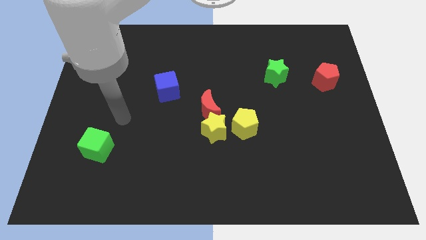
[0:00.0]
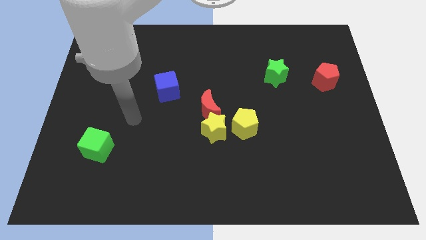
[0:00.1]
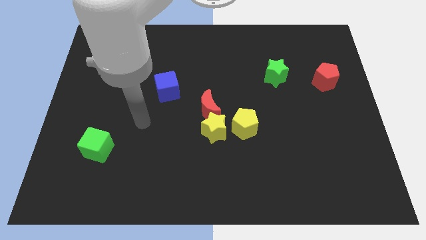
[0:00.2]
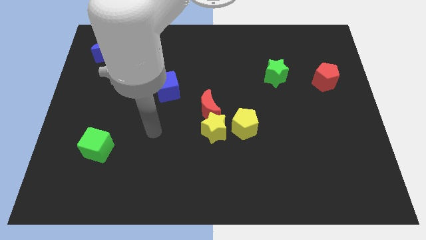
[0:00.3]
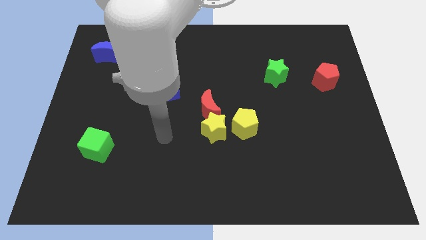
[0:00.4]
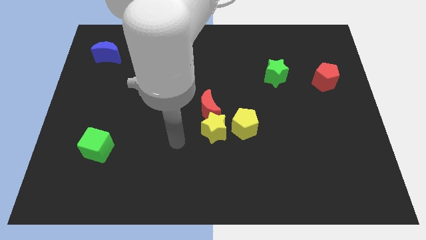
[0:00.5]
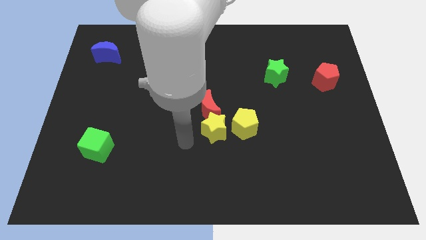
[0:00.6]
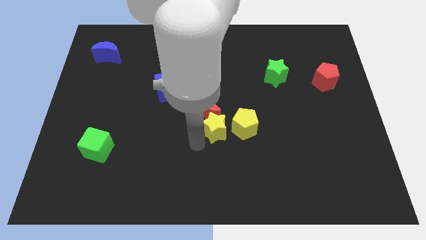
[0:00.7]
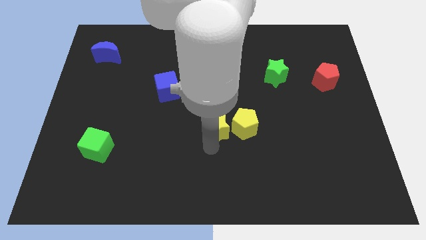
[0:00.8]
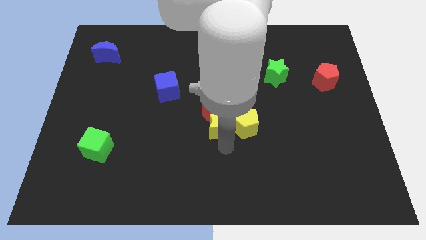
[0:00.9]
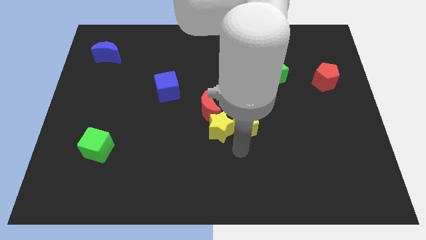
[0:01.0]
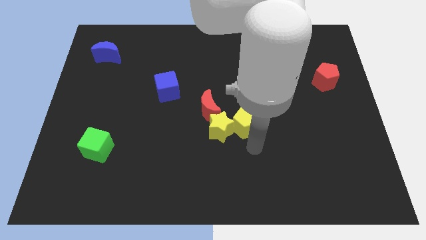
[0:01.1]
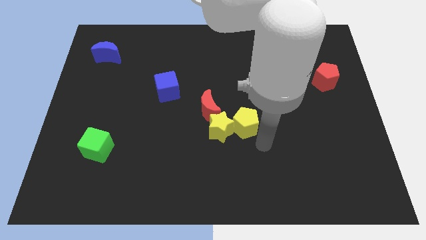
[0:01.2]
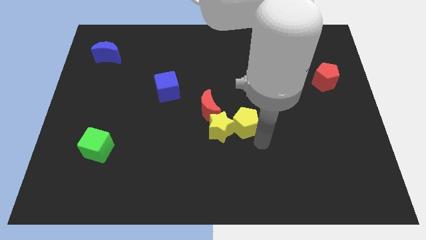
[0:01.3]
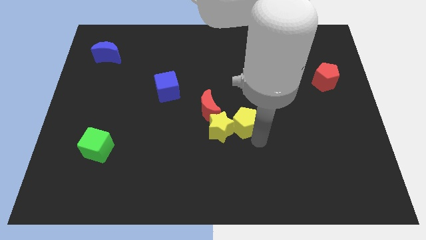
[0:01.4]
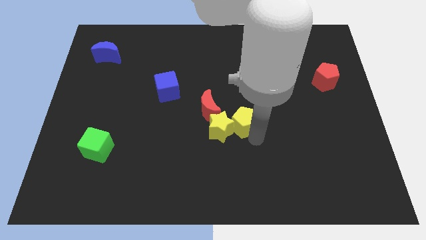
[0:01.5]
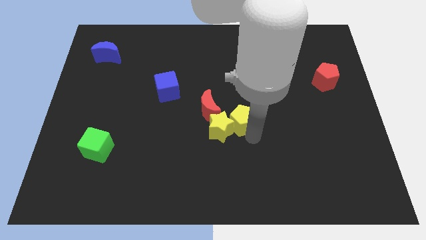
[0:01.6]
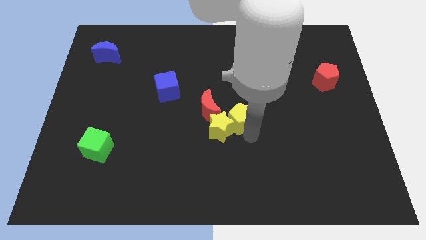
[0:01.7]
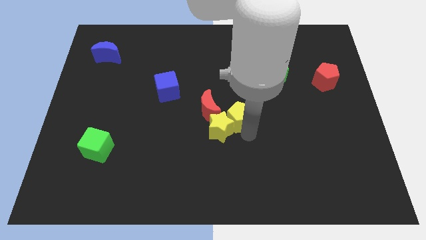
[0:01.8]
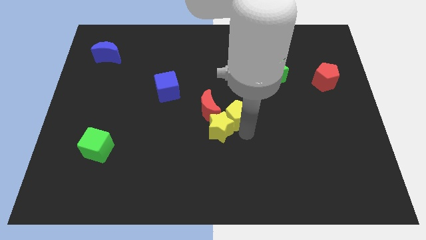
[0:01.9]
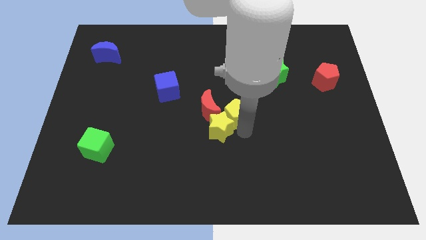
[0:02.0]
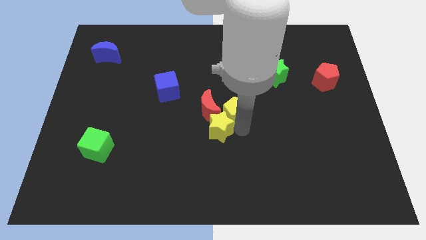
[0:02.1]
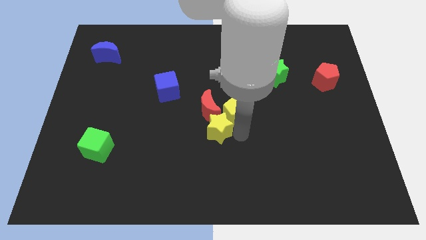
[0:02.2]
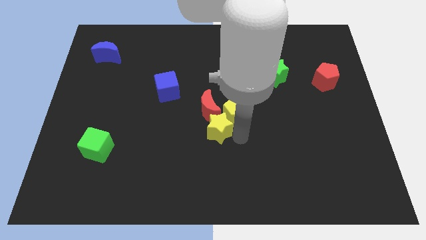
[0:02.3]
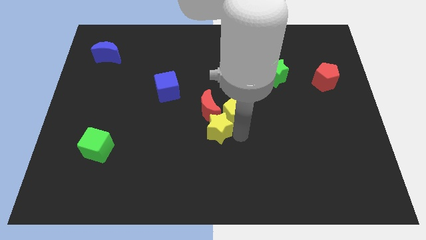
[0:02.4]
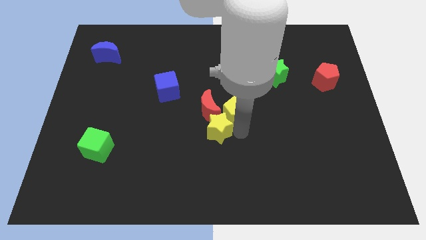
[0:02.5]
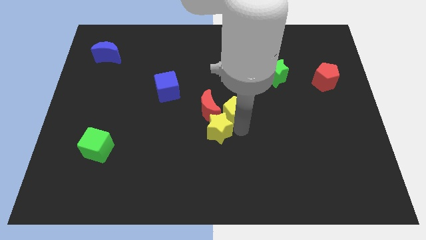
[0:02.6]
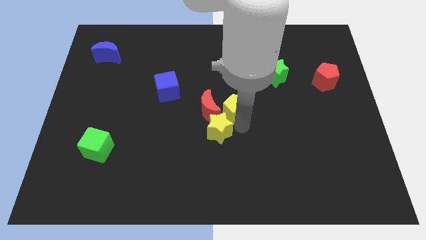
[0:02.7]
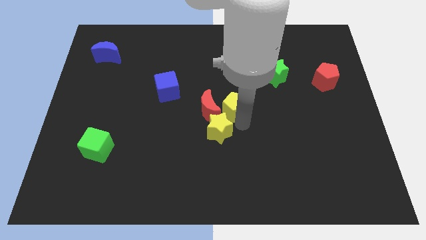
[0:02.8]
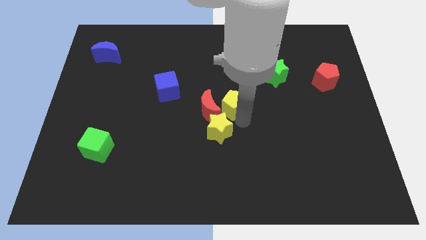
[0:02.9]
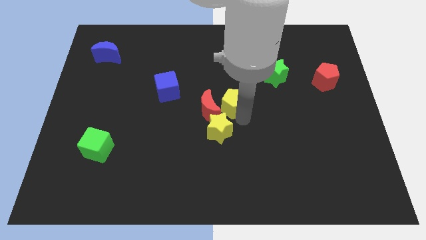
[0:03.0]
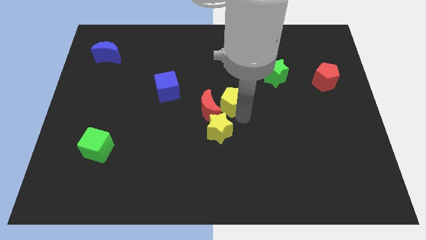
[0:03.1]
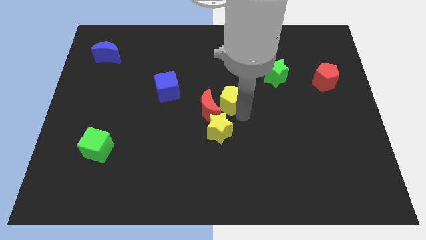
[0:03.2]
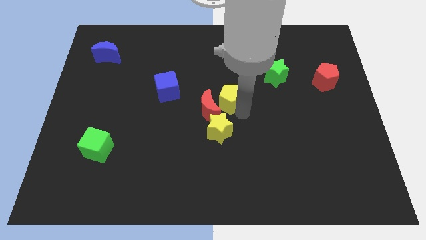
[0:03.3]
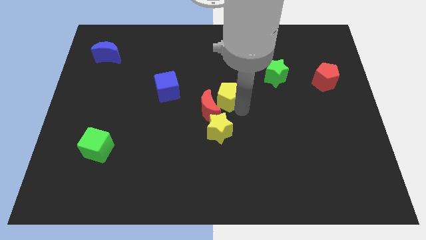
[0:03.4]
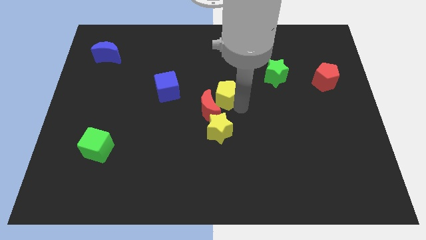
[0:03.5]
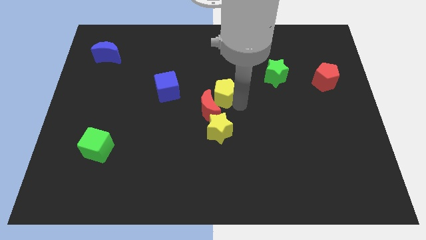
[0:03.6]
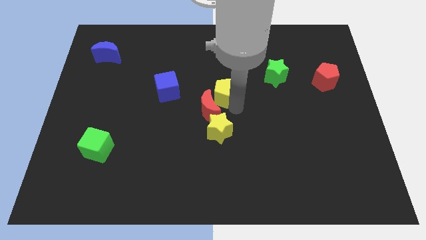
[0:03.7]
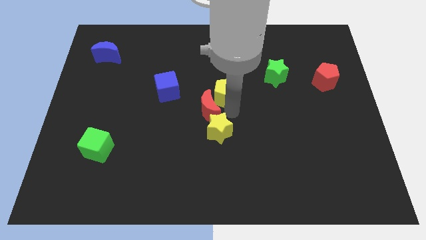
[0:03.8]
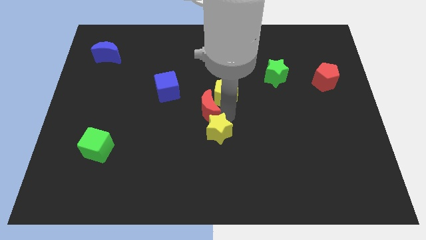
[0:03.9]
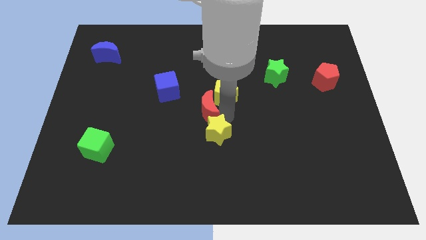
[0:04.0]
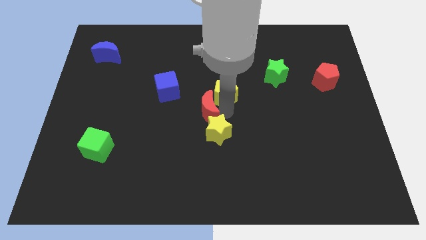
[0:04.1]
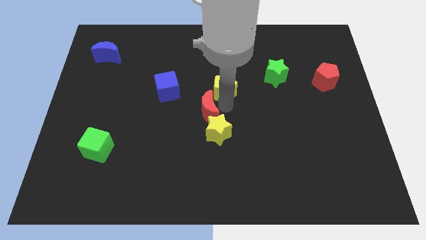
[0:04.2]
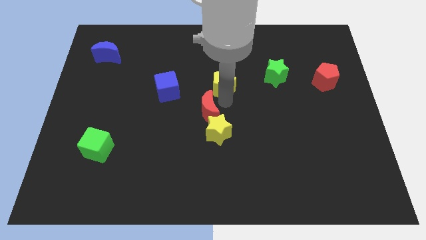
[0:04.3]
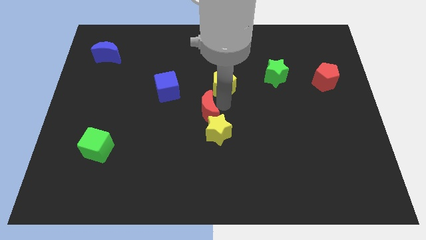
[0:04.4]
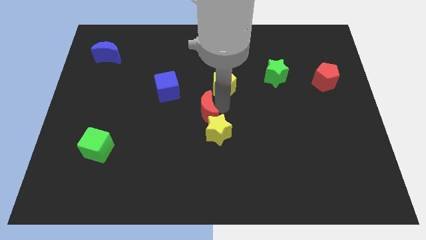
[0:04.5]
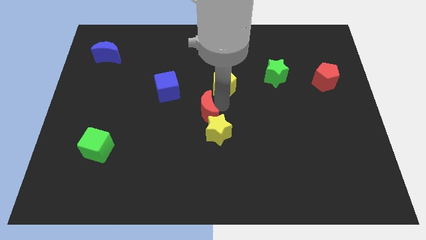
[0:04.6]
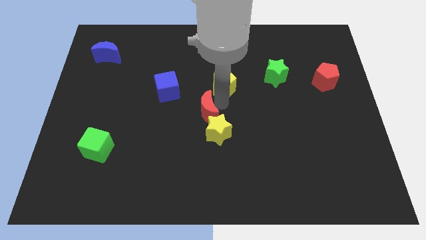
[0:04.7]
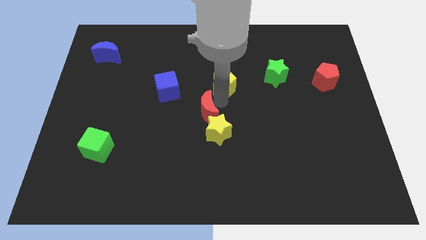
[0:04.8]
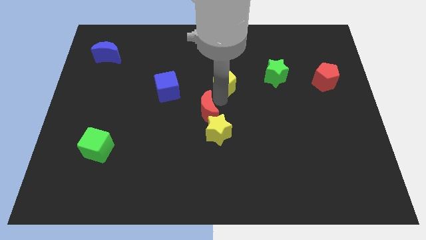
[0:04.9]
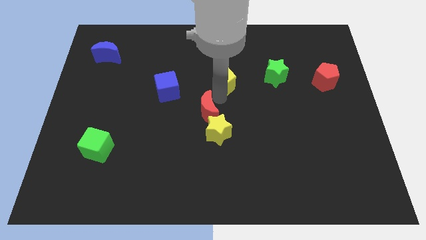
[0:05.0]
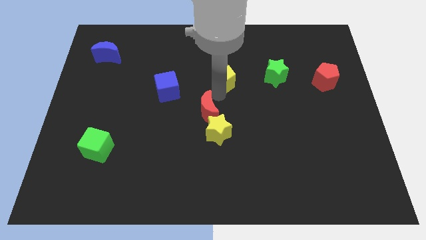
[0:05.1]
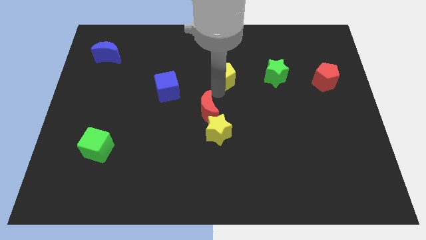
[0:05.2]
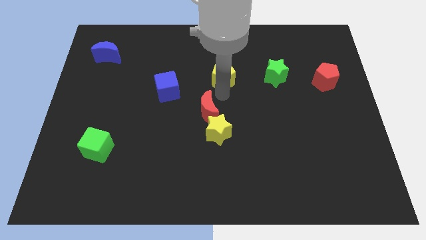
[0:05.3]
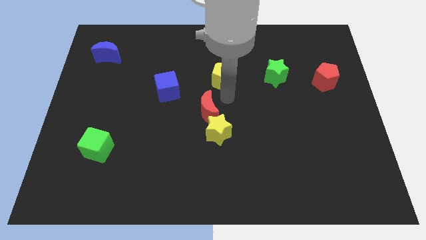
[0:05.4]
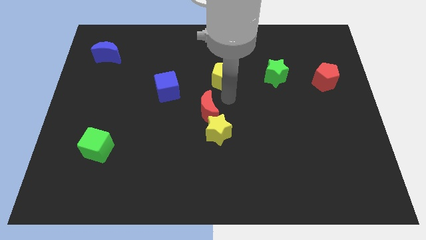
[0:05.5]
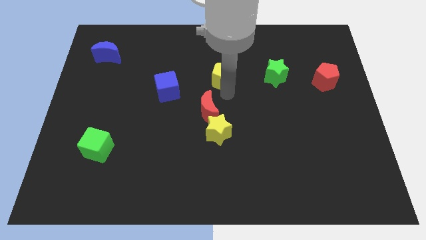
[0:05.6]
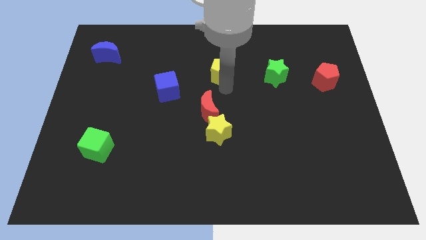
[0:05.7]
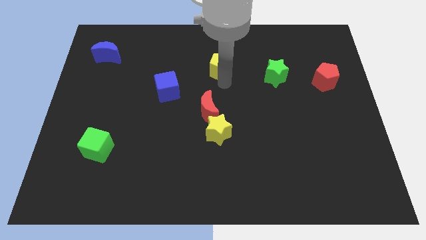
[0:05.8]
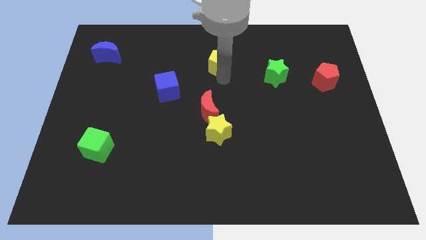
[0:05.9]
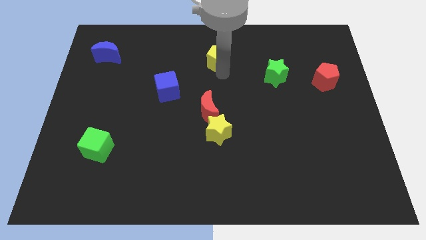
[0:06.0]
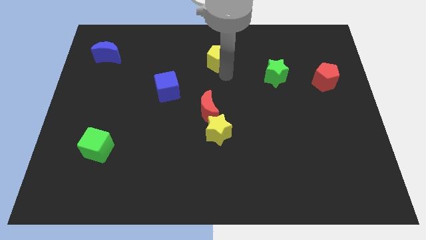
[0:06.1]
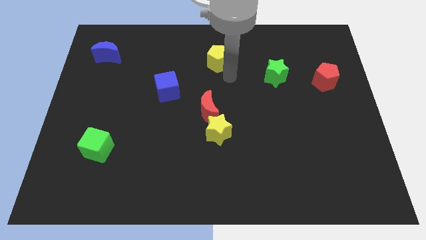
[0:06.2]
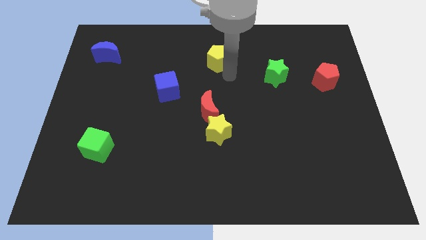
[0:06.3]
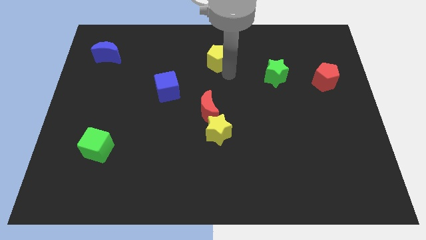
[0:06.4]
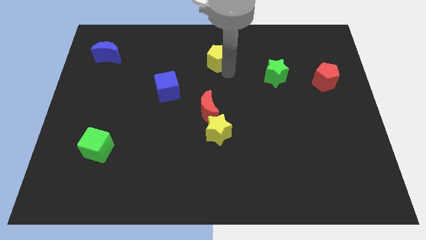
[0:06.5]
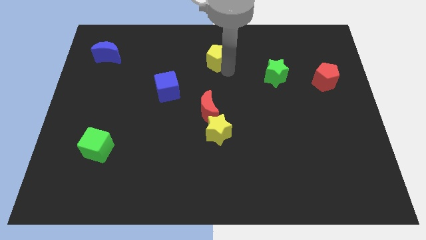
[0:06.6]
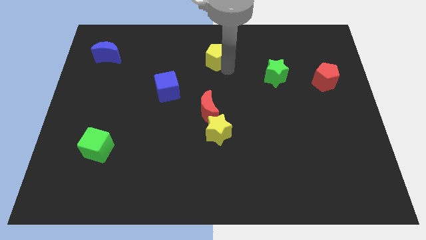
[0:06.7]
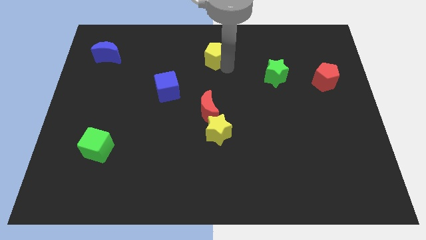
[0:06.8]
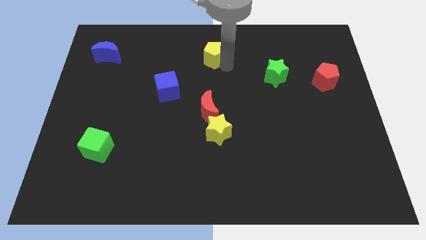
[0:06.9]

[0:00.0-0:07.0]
move the yellow pentagon to the top

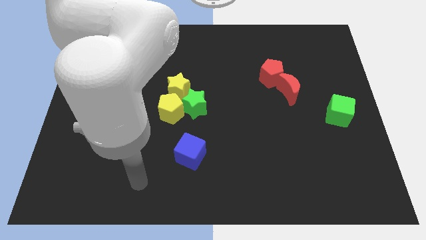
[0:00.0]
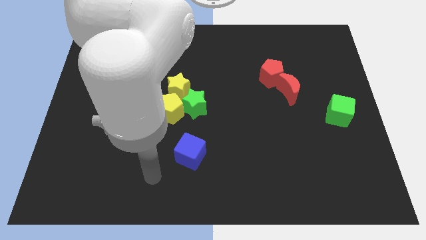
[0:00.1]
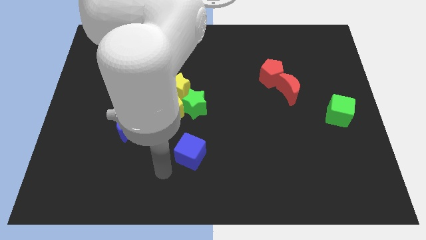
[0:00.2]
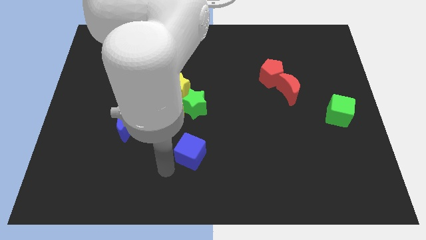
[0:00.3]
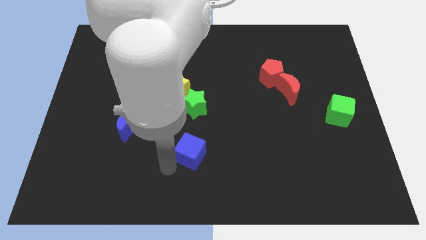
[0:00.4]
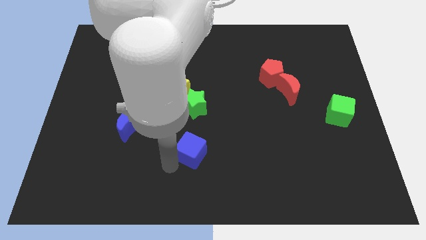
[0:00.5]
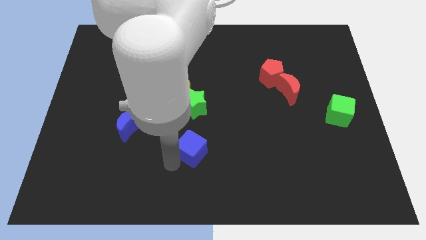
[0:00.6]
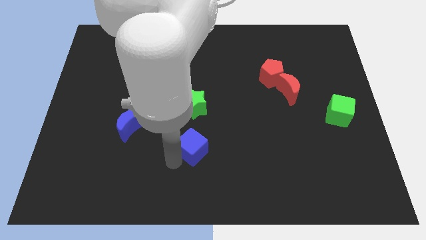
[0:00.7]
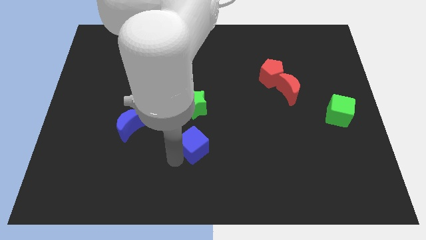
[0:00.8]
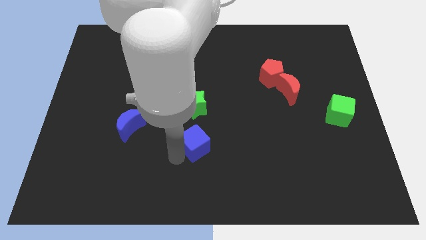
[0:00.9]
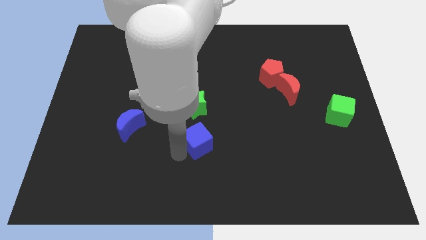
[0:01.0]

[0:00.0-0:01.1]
put the blue cube to the center of the board
